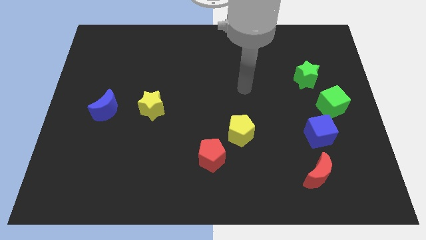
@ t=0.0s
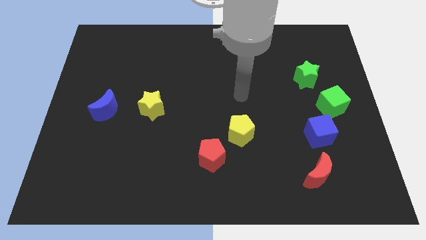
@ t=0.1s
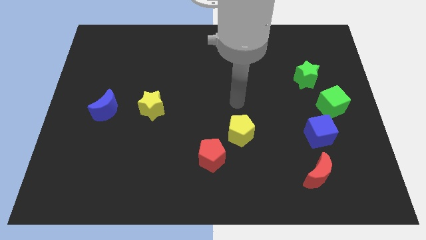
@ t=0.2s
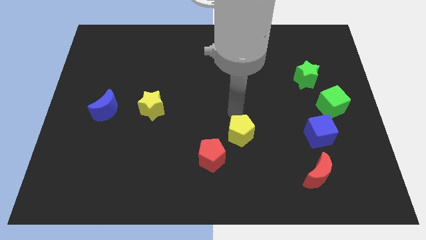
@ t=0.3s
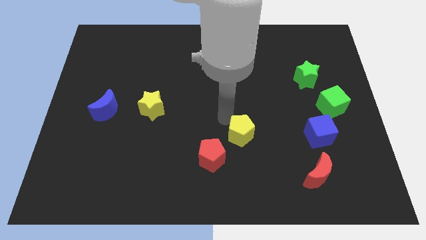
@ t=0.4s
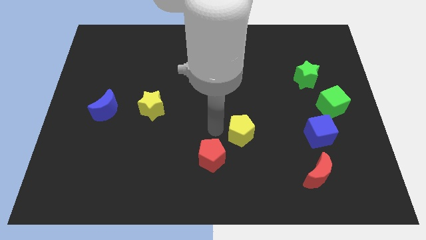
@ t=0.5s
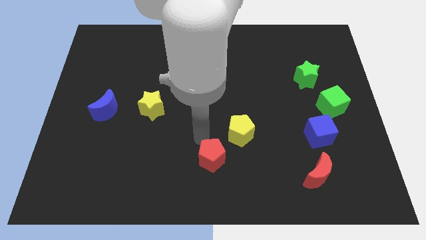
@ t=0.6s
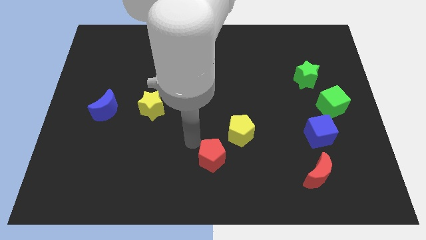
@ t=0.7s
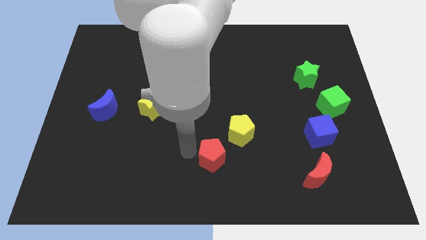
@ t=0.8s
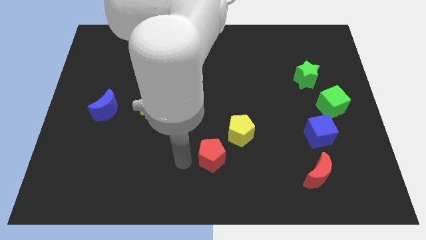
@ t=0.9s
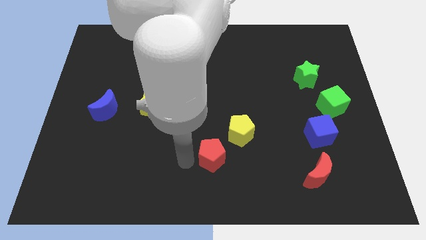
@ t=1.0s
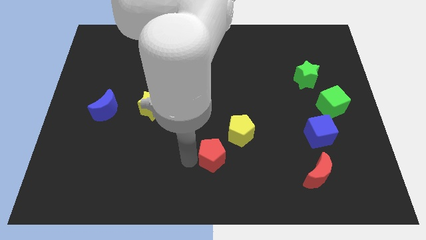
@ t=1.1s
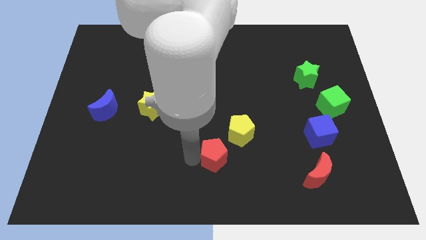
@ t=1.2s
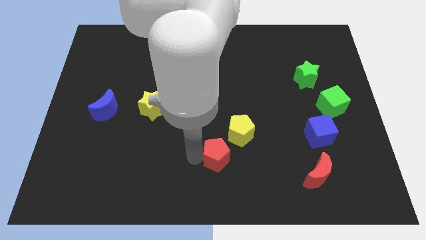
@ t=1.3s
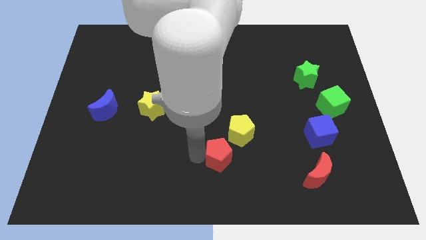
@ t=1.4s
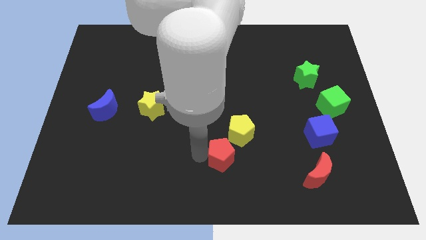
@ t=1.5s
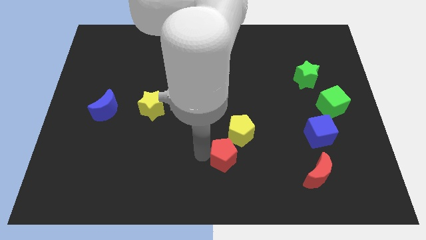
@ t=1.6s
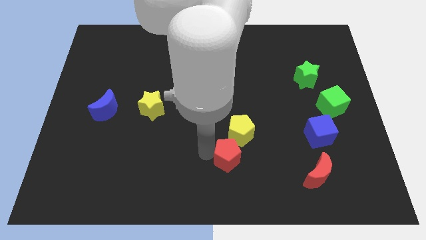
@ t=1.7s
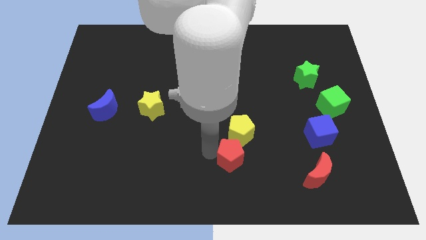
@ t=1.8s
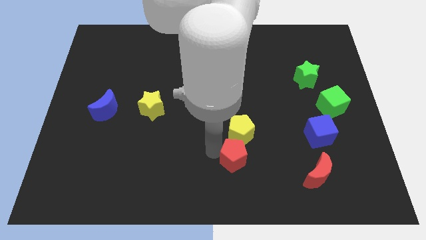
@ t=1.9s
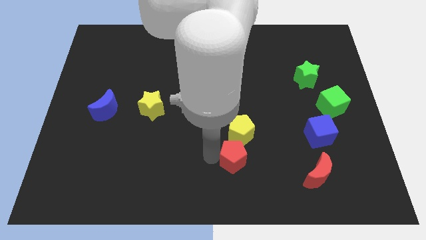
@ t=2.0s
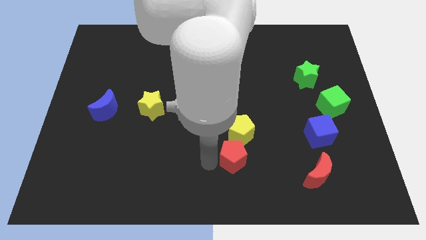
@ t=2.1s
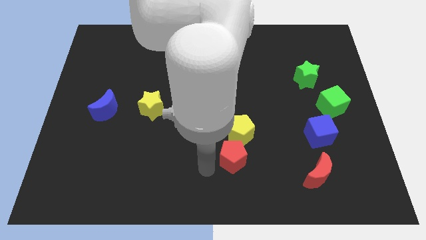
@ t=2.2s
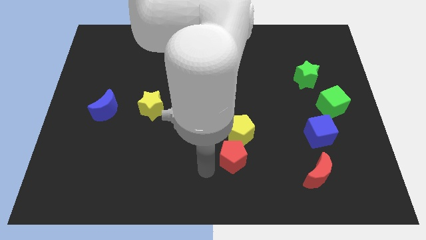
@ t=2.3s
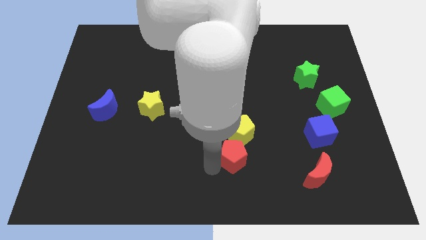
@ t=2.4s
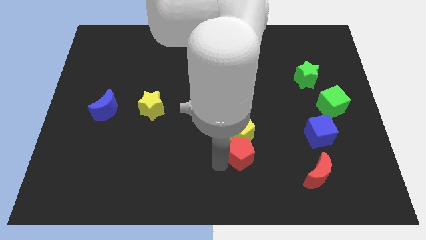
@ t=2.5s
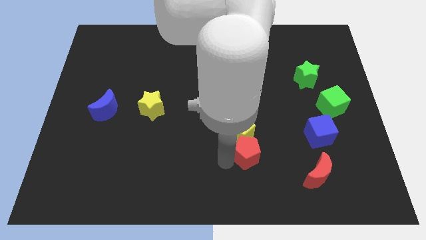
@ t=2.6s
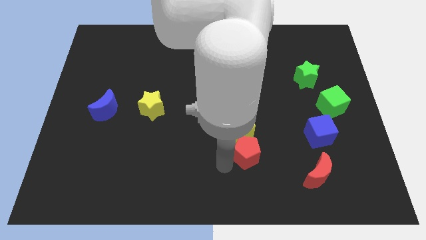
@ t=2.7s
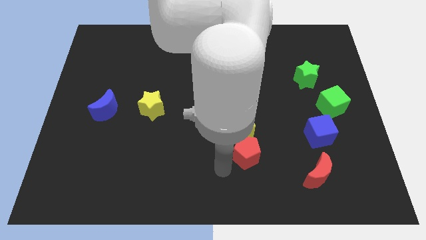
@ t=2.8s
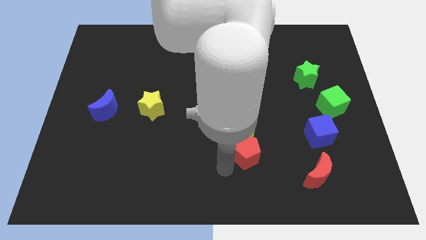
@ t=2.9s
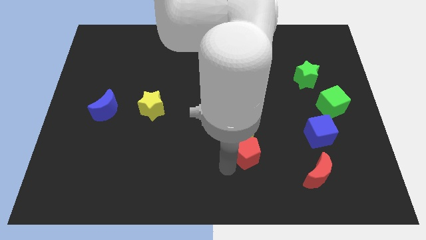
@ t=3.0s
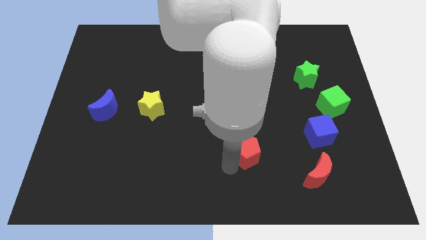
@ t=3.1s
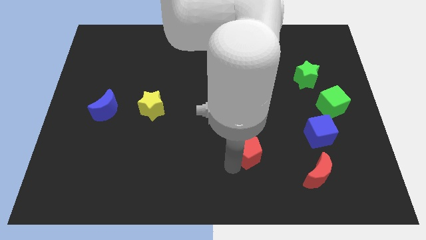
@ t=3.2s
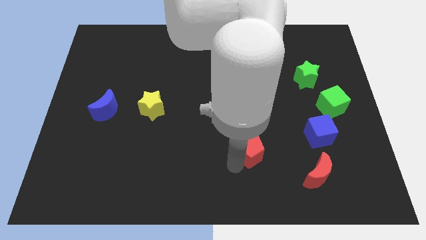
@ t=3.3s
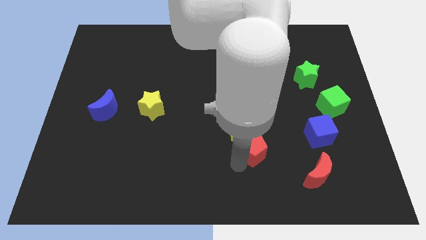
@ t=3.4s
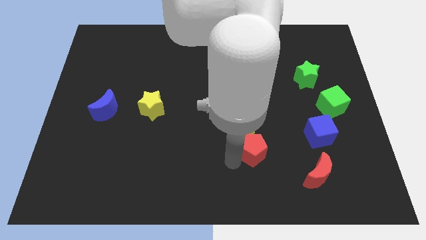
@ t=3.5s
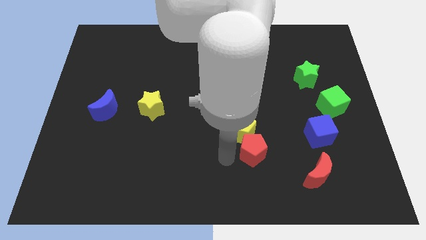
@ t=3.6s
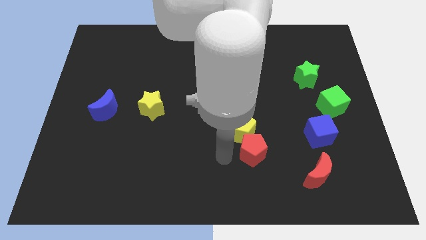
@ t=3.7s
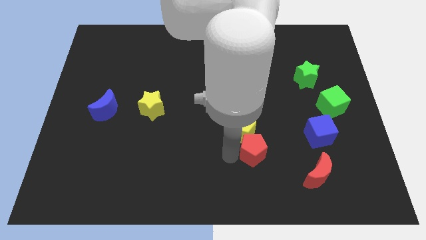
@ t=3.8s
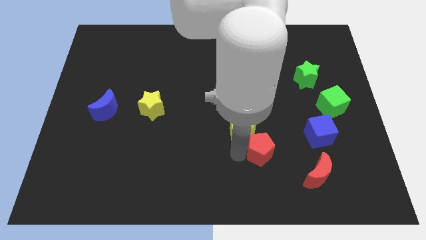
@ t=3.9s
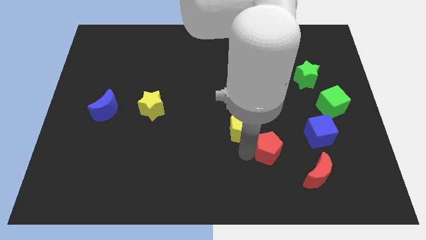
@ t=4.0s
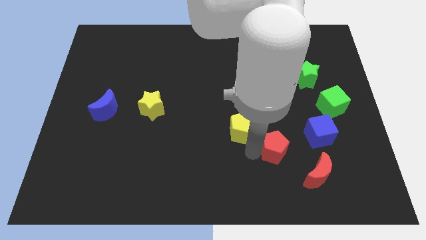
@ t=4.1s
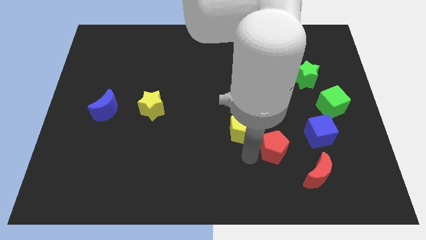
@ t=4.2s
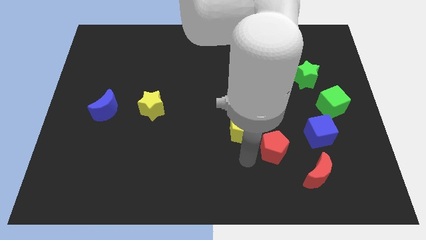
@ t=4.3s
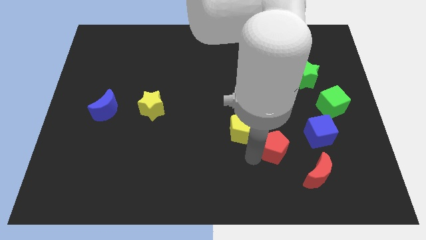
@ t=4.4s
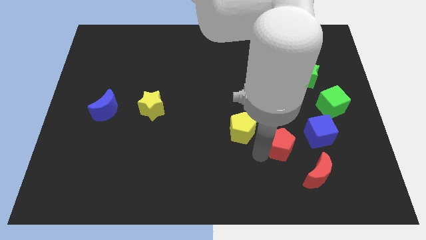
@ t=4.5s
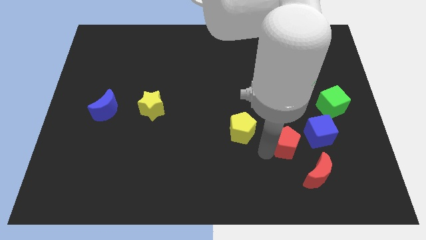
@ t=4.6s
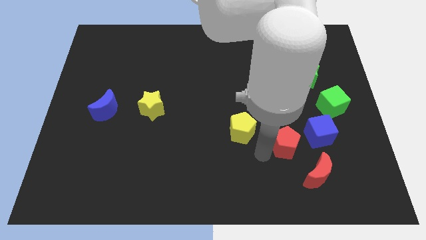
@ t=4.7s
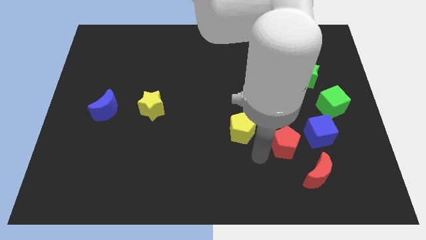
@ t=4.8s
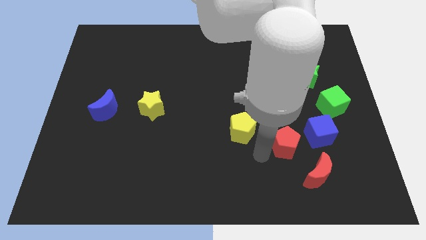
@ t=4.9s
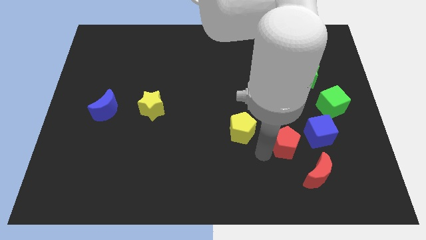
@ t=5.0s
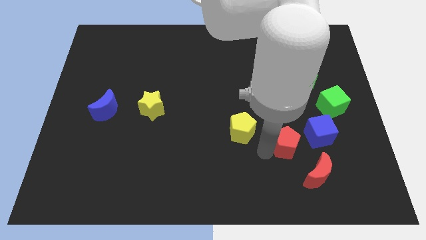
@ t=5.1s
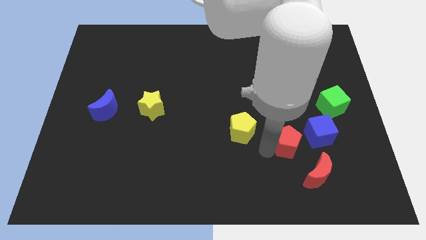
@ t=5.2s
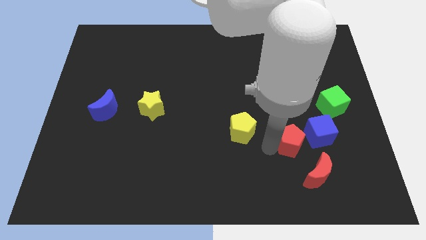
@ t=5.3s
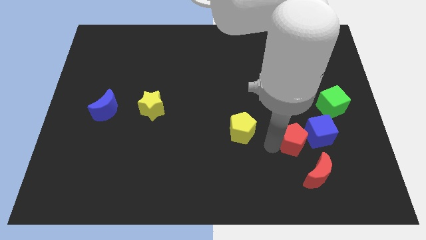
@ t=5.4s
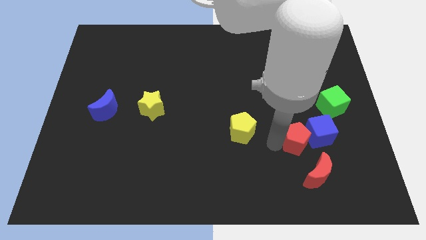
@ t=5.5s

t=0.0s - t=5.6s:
push the red pentagon next to the blue cube
